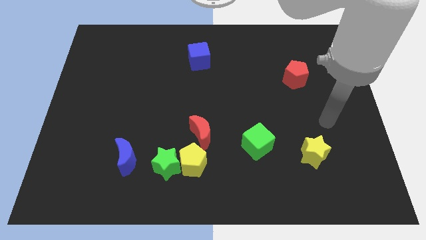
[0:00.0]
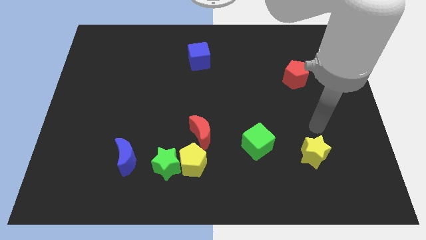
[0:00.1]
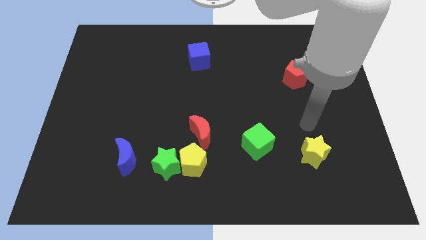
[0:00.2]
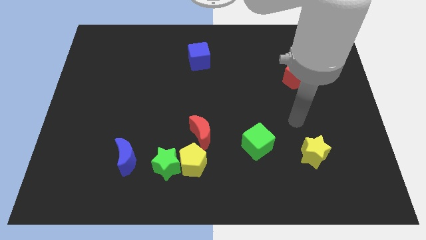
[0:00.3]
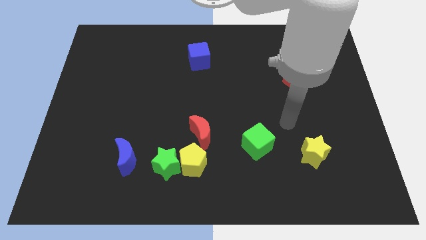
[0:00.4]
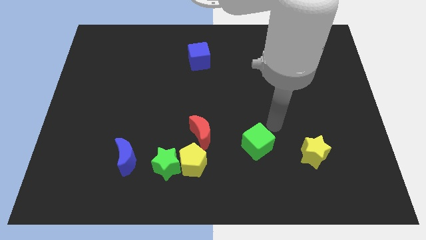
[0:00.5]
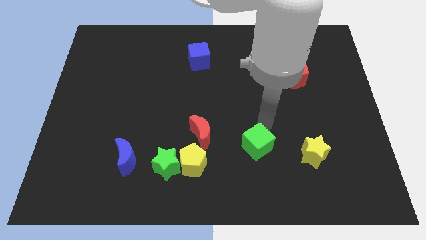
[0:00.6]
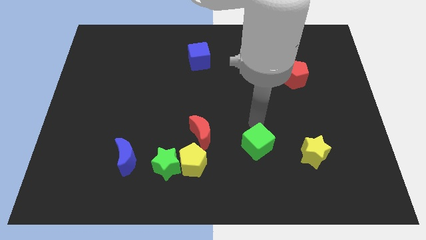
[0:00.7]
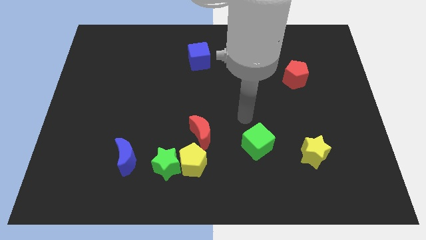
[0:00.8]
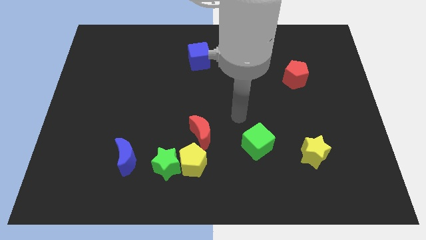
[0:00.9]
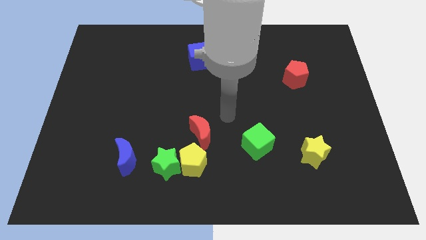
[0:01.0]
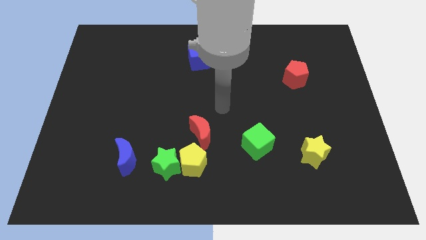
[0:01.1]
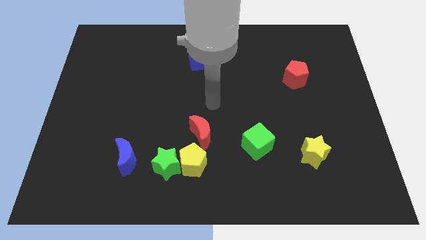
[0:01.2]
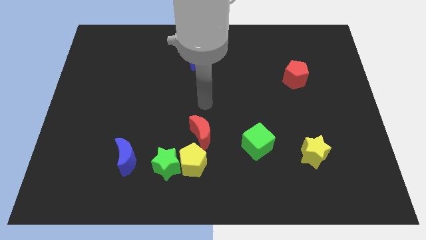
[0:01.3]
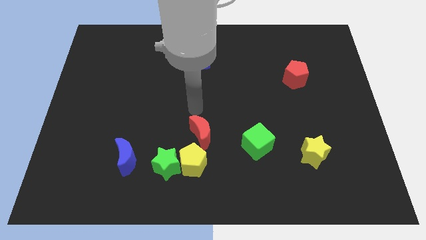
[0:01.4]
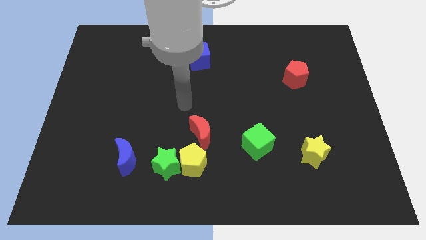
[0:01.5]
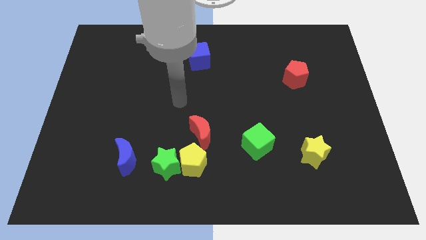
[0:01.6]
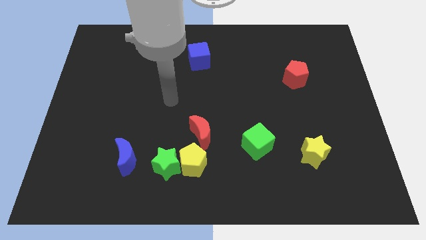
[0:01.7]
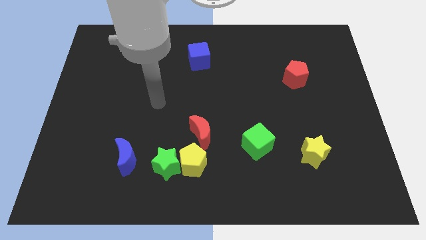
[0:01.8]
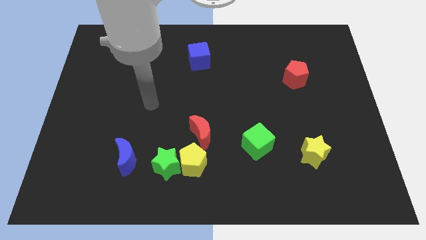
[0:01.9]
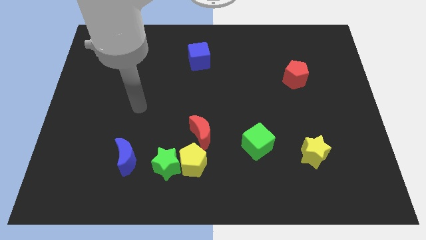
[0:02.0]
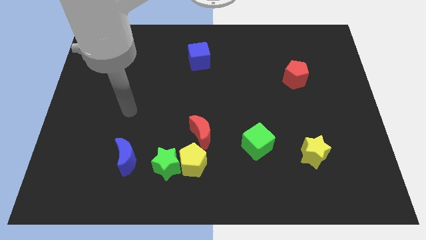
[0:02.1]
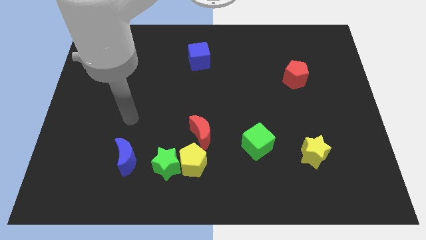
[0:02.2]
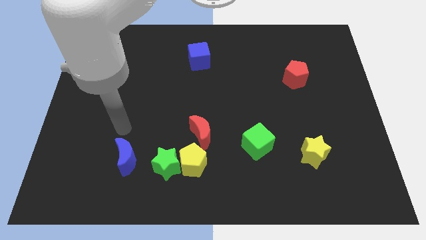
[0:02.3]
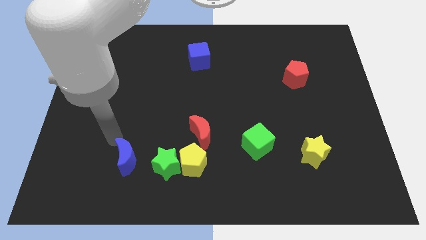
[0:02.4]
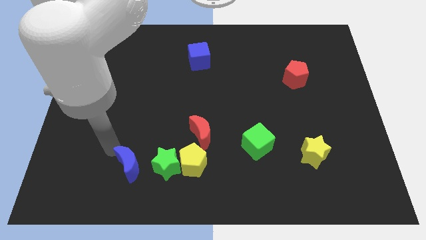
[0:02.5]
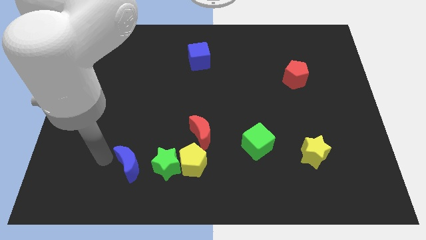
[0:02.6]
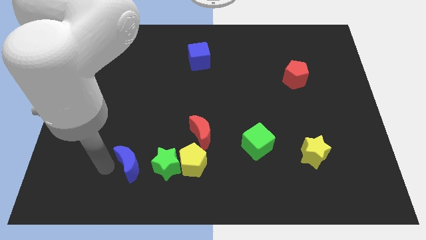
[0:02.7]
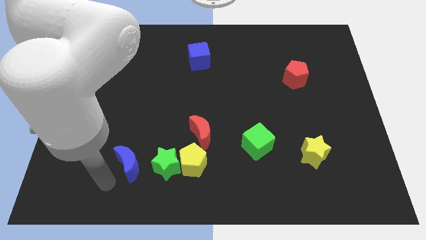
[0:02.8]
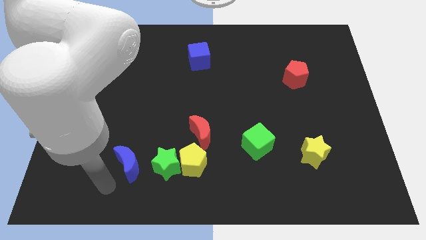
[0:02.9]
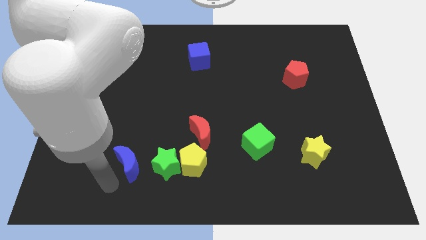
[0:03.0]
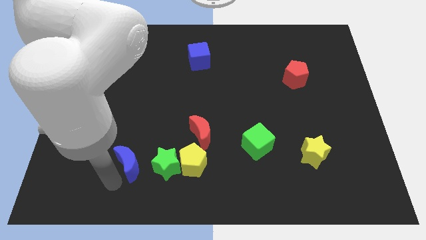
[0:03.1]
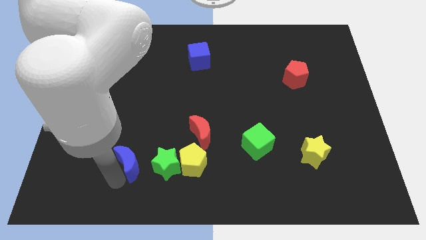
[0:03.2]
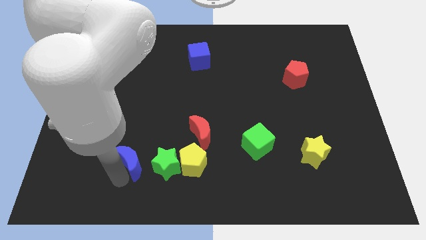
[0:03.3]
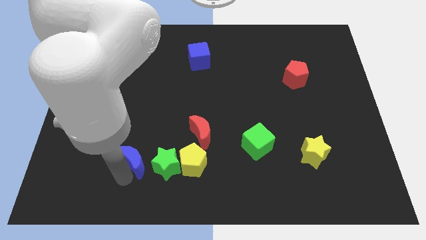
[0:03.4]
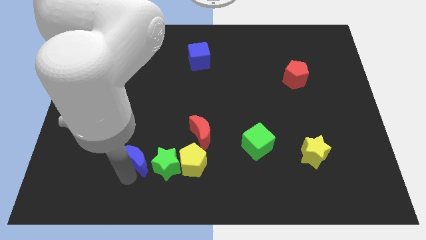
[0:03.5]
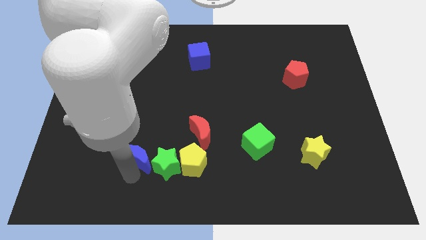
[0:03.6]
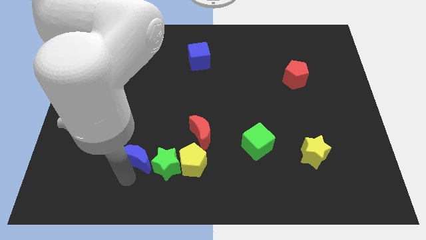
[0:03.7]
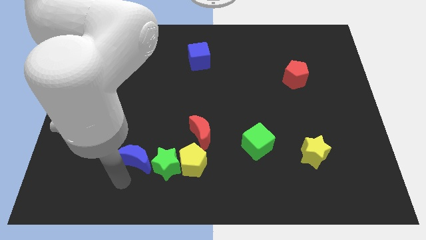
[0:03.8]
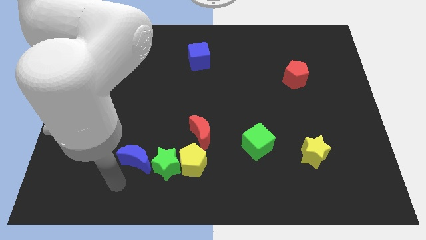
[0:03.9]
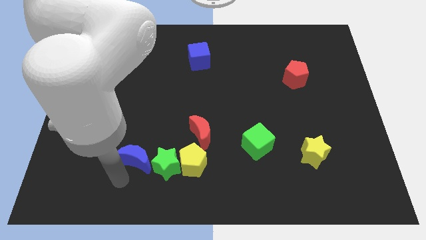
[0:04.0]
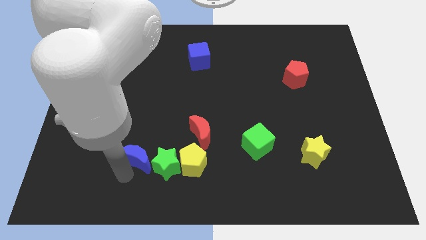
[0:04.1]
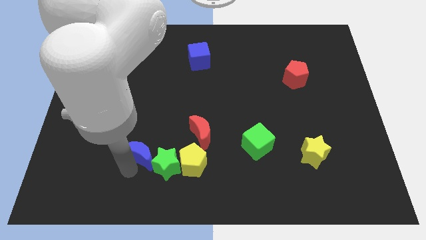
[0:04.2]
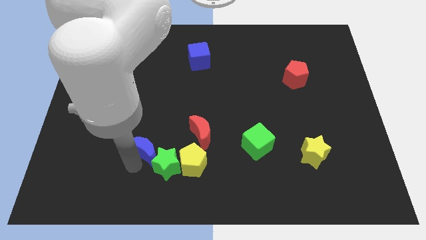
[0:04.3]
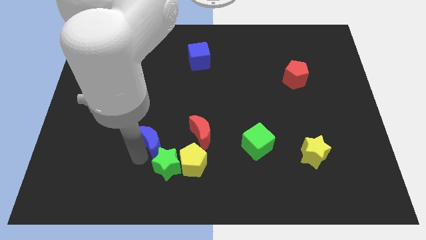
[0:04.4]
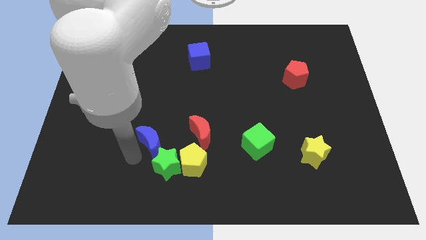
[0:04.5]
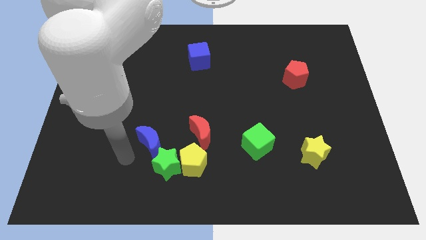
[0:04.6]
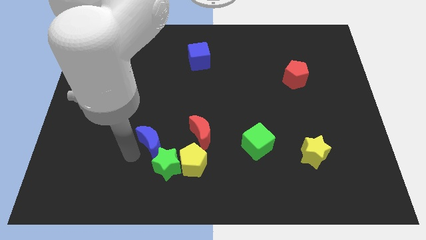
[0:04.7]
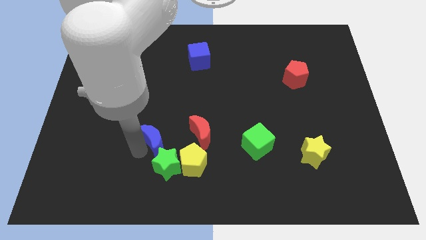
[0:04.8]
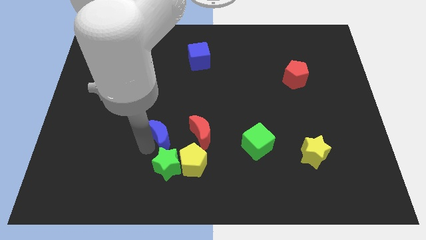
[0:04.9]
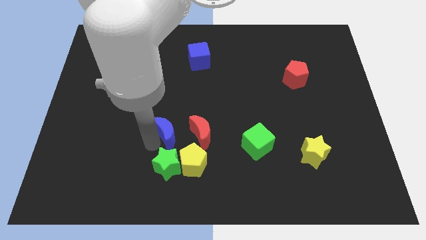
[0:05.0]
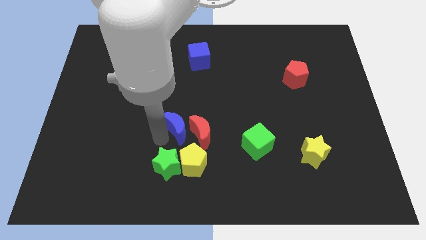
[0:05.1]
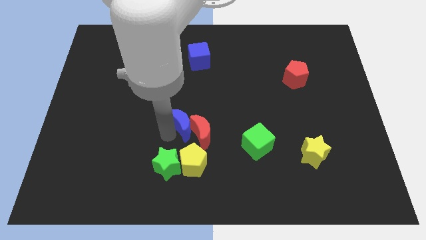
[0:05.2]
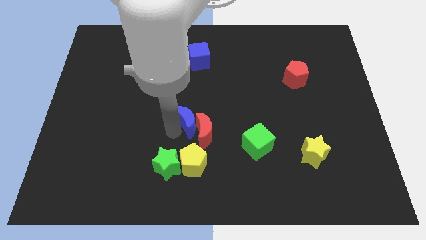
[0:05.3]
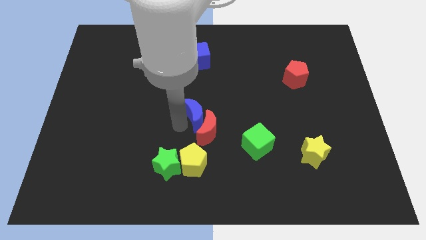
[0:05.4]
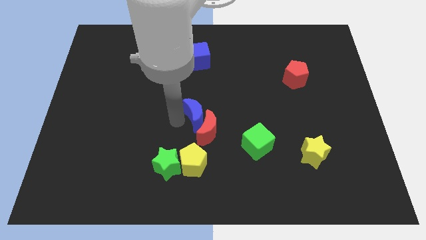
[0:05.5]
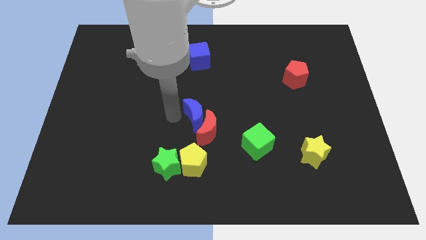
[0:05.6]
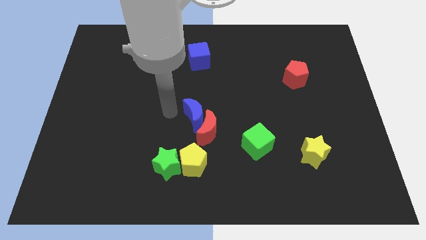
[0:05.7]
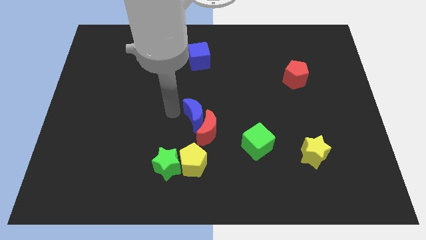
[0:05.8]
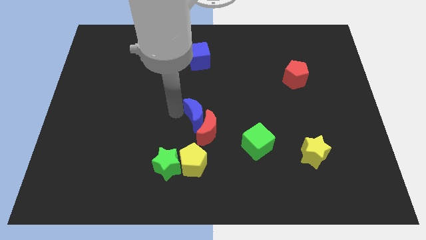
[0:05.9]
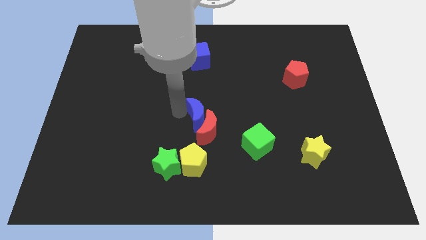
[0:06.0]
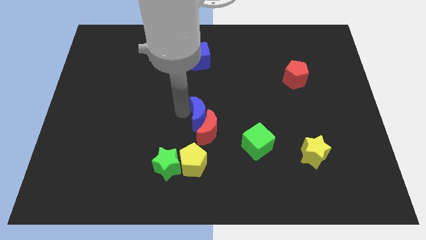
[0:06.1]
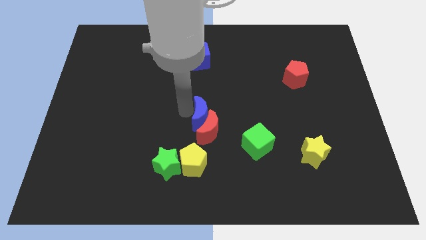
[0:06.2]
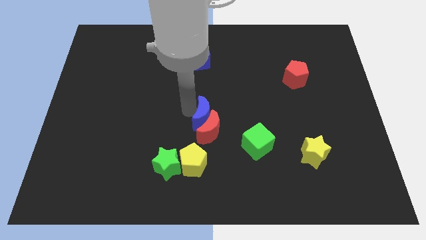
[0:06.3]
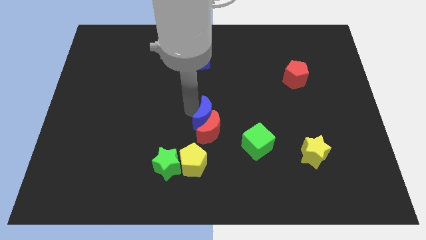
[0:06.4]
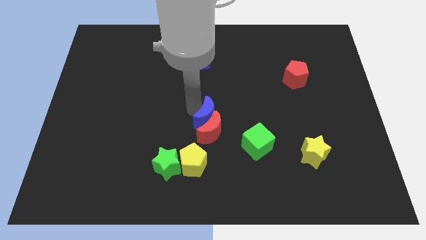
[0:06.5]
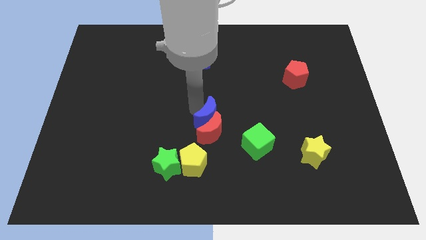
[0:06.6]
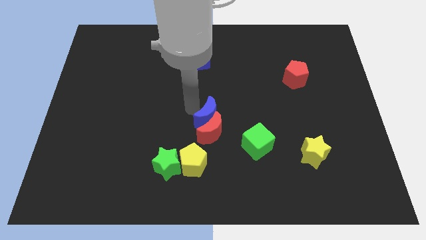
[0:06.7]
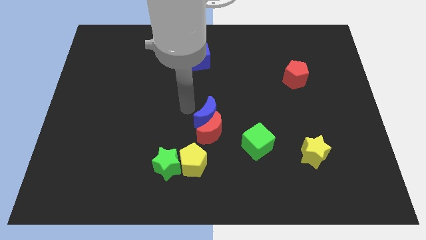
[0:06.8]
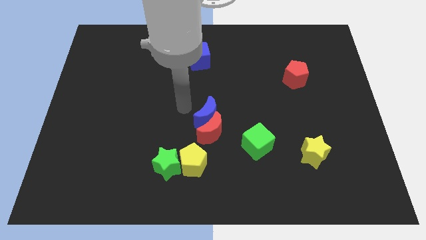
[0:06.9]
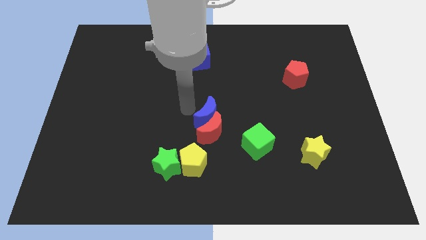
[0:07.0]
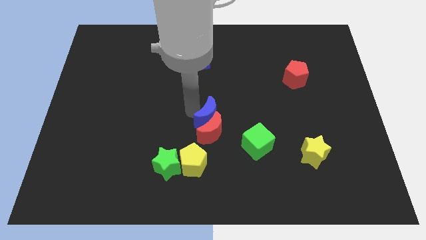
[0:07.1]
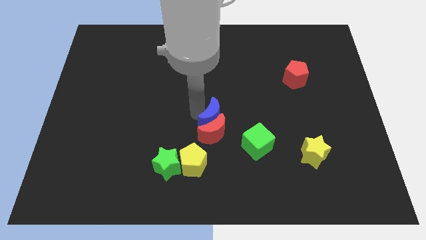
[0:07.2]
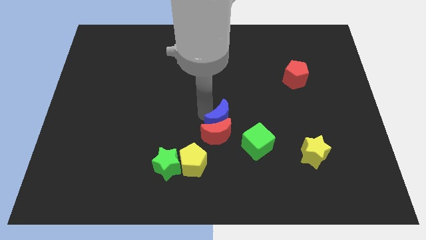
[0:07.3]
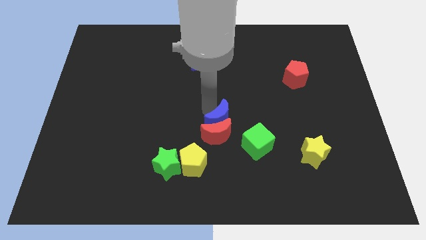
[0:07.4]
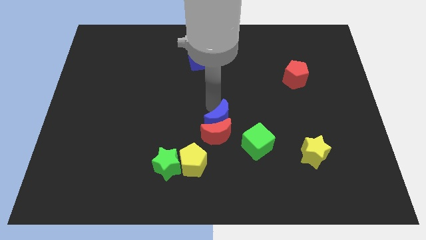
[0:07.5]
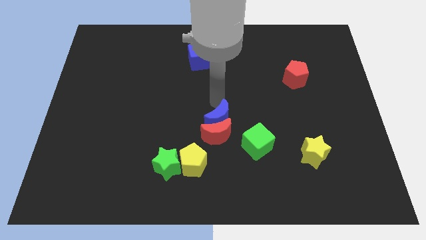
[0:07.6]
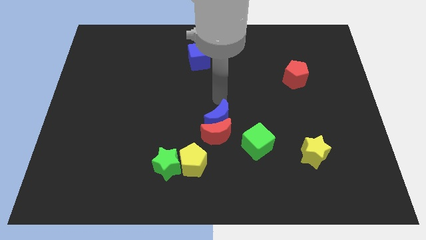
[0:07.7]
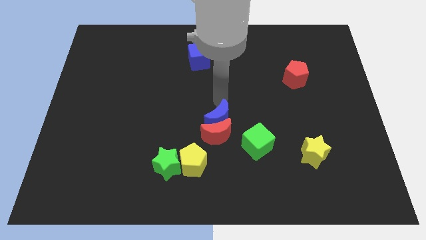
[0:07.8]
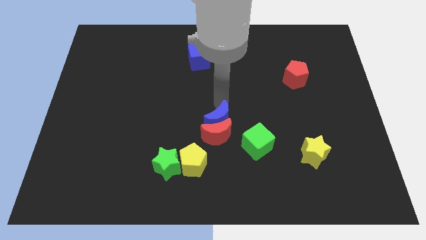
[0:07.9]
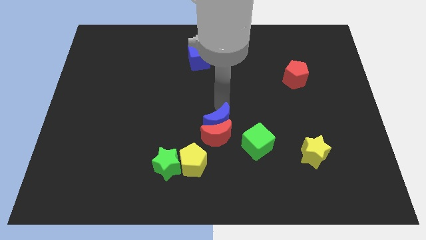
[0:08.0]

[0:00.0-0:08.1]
put the blue moon to the top right of the yellow pentagon
